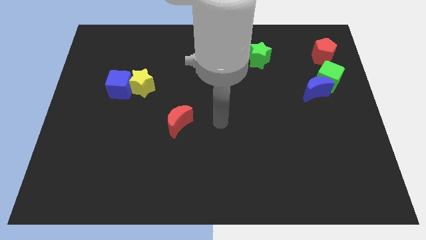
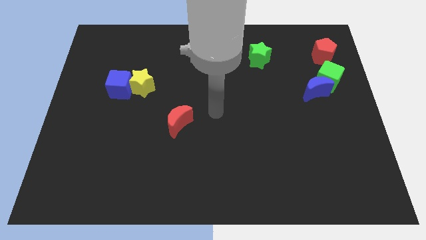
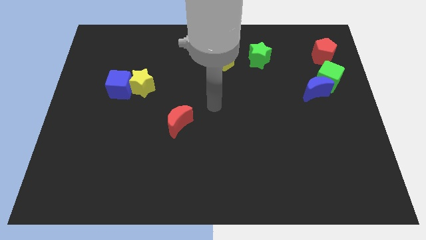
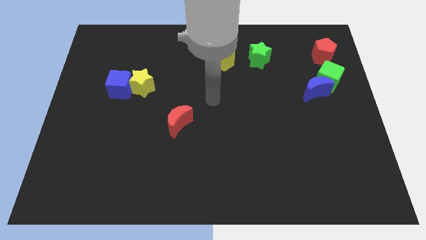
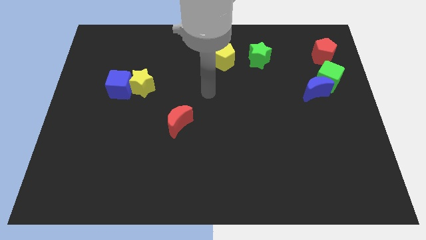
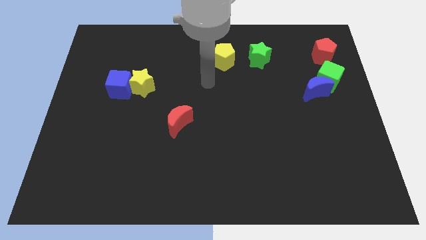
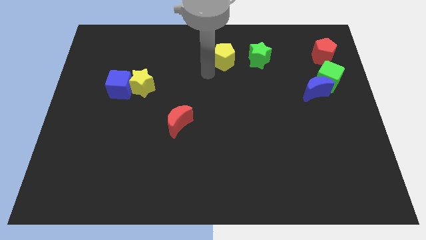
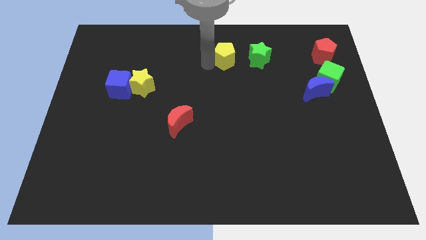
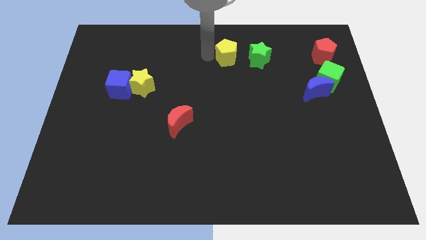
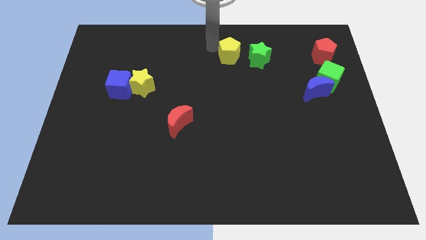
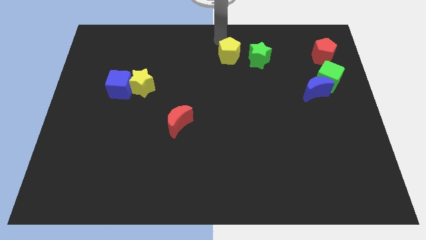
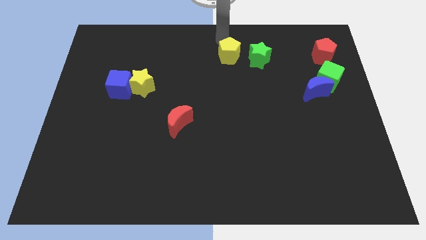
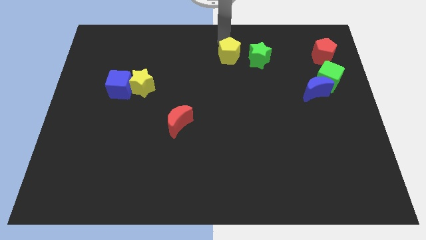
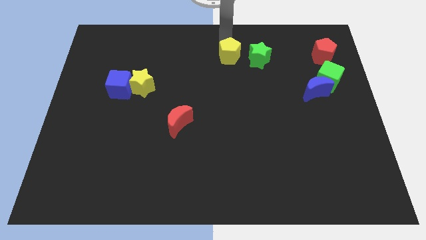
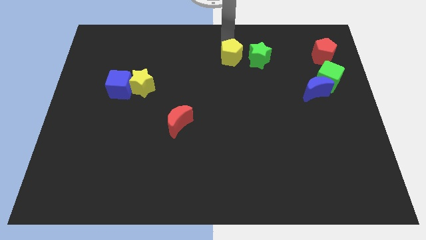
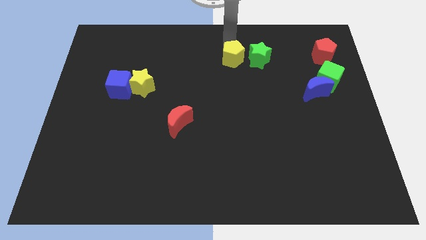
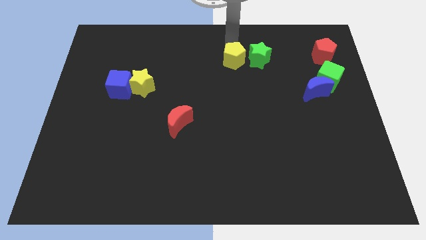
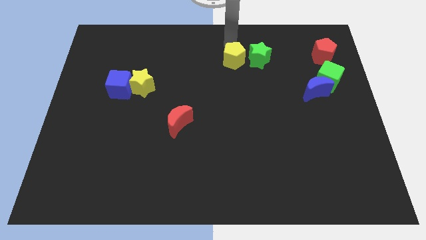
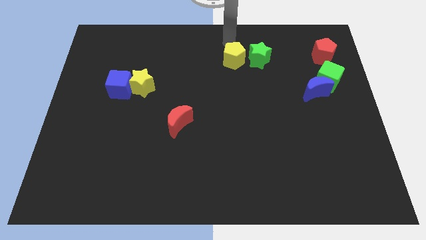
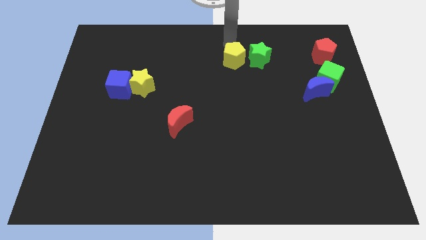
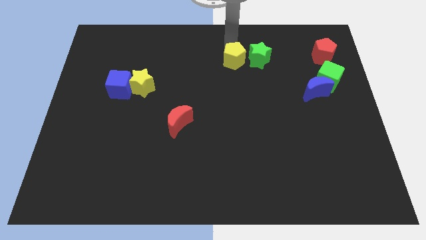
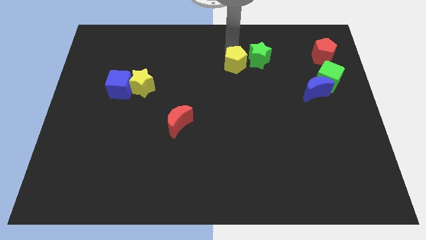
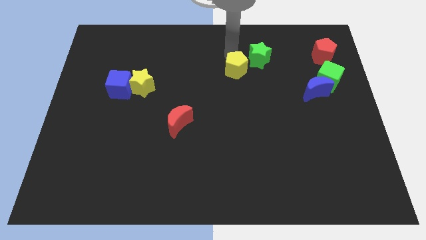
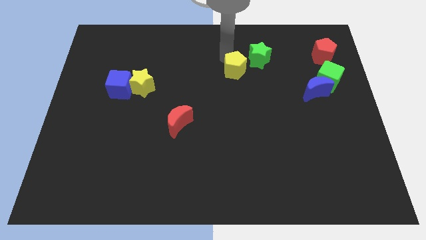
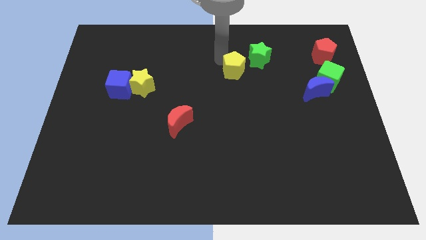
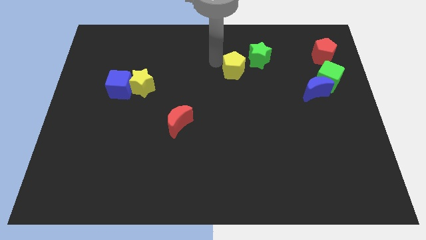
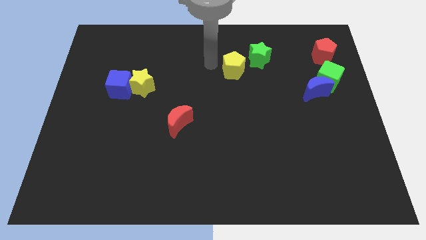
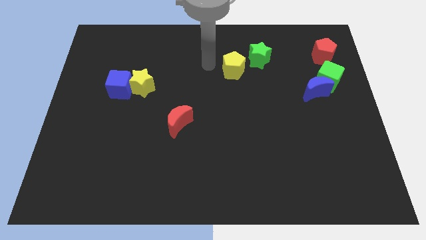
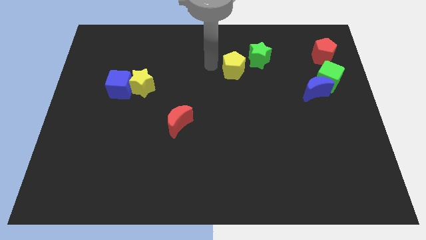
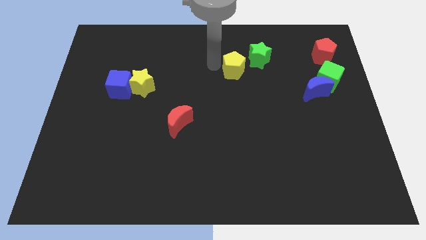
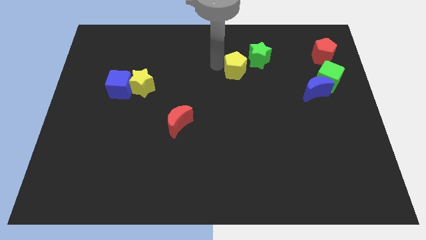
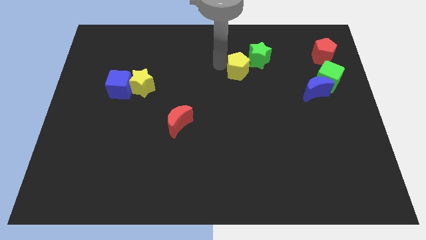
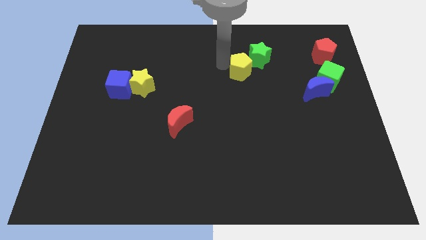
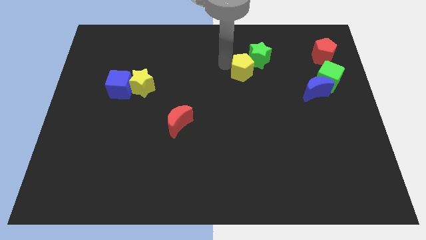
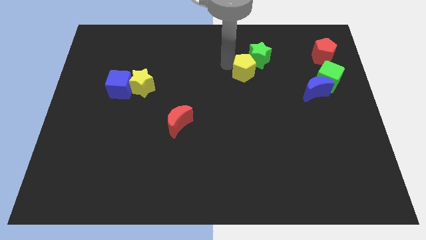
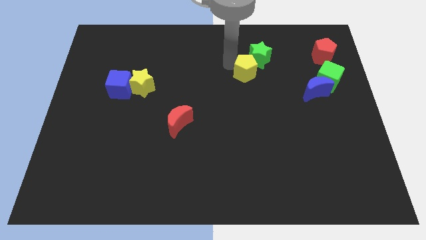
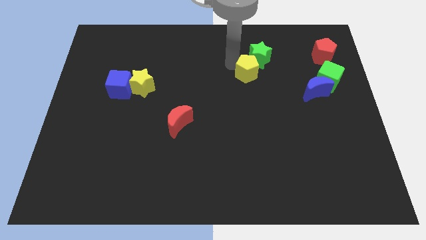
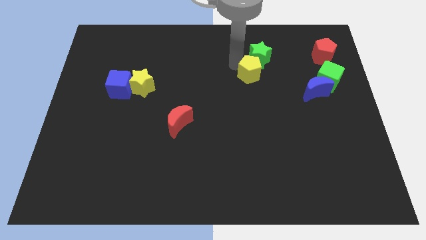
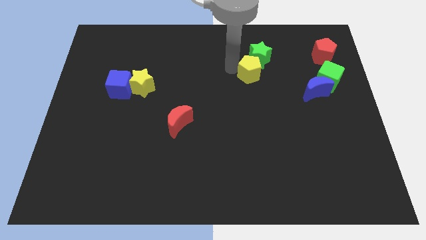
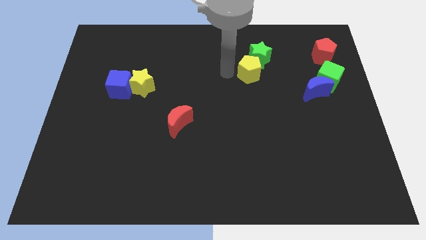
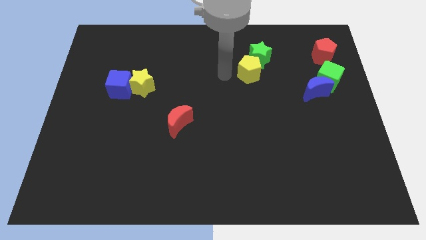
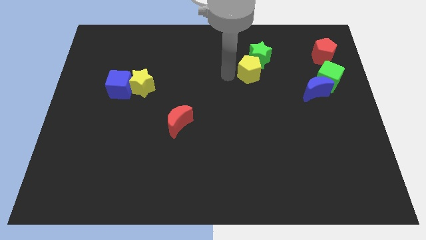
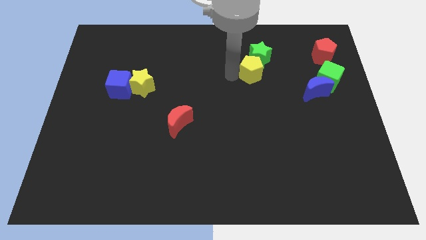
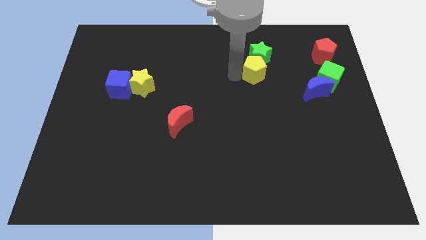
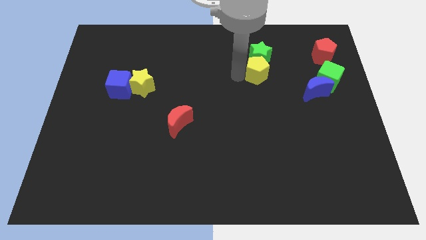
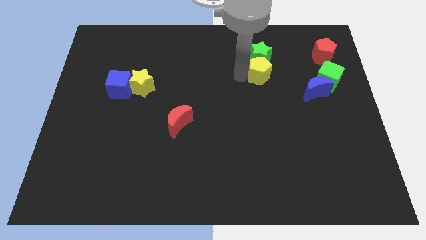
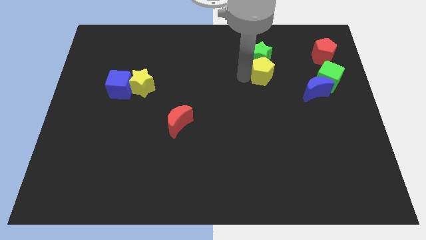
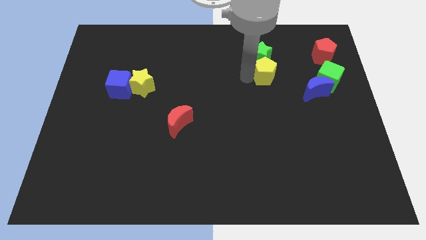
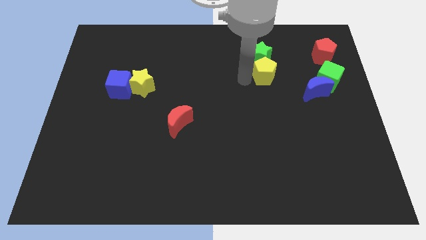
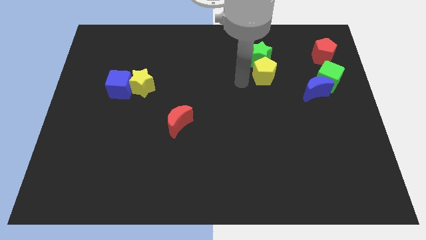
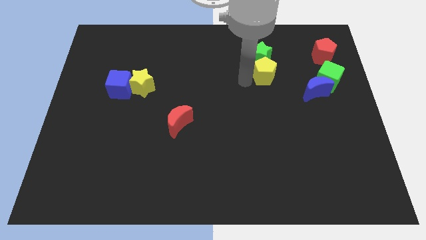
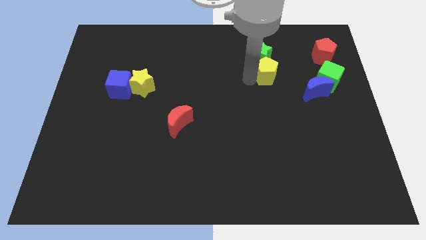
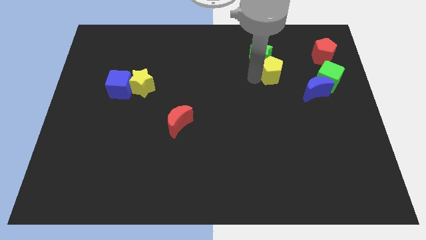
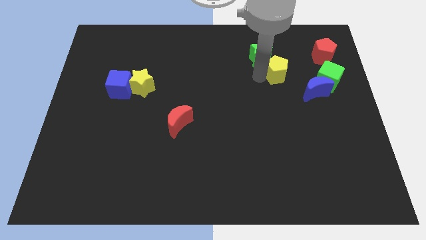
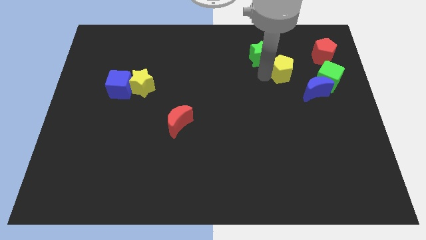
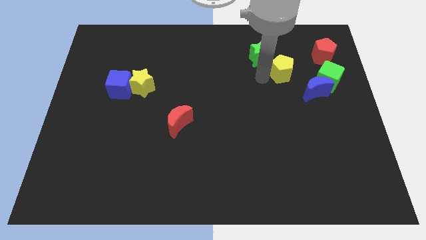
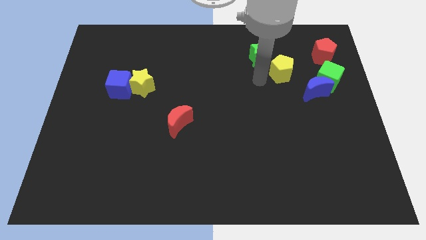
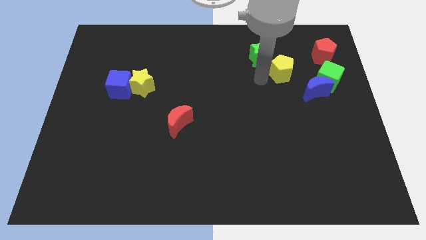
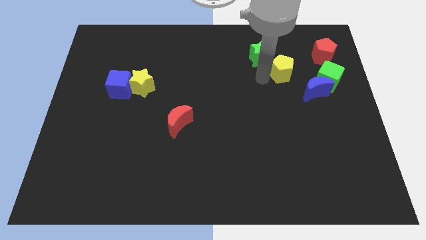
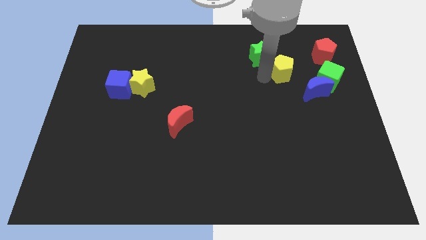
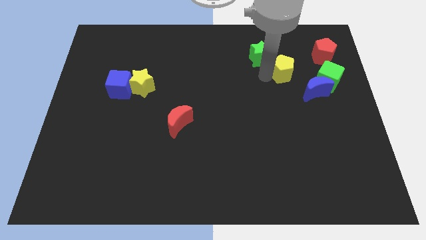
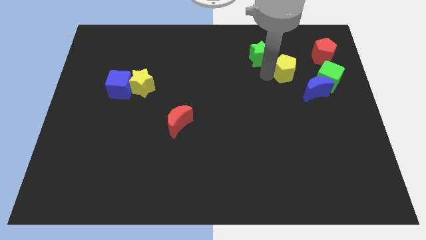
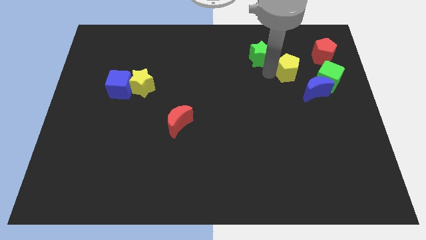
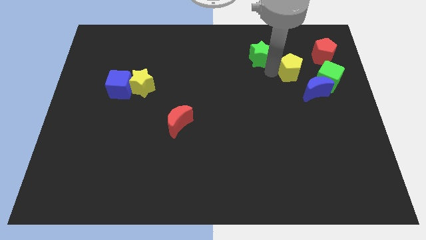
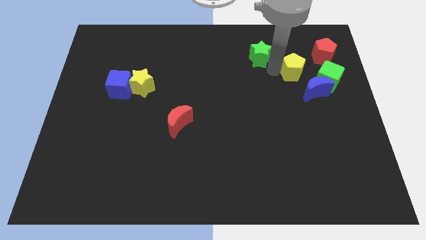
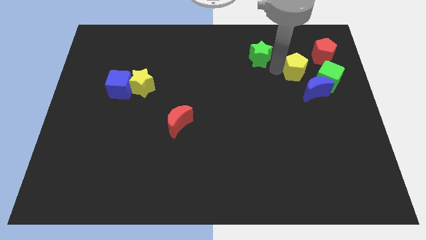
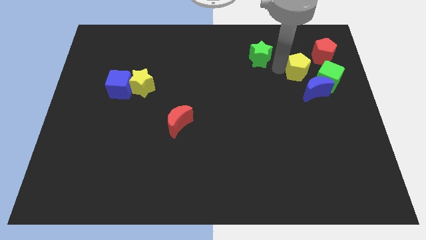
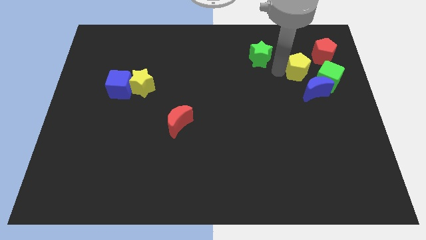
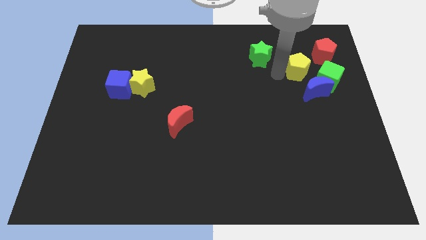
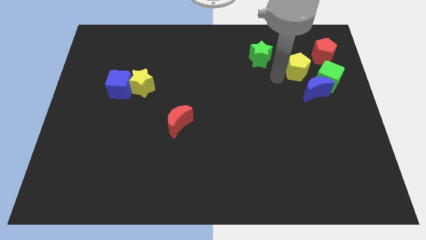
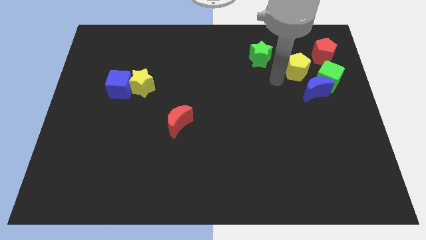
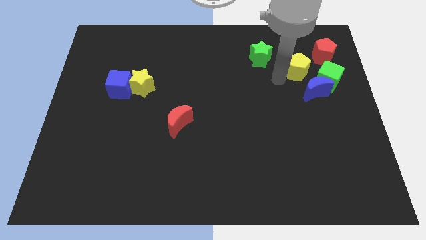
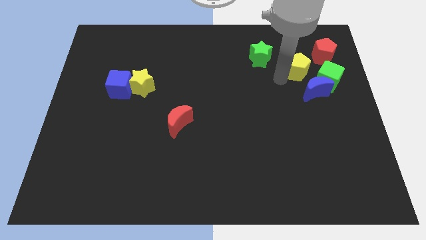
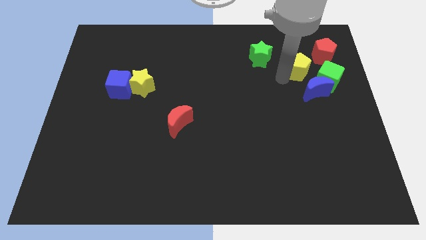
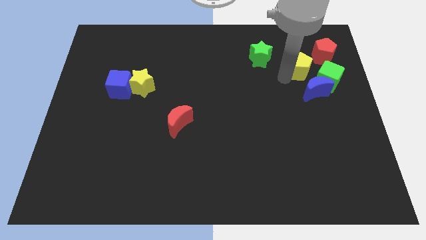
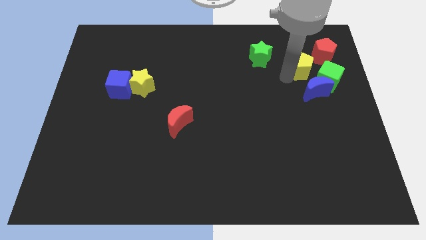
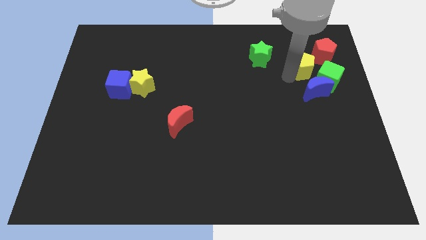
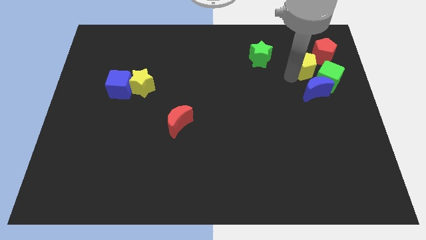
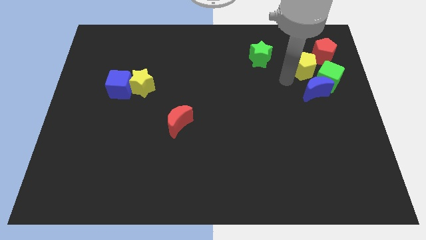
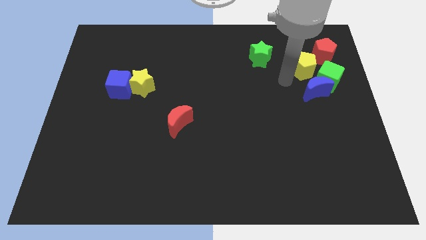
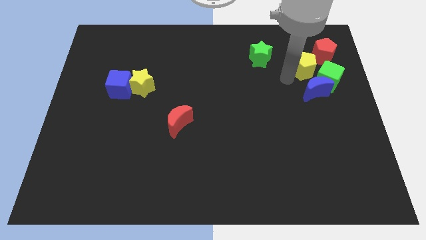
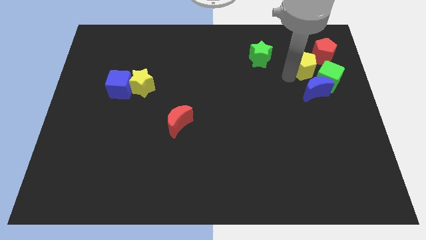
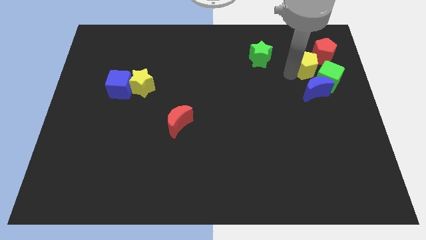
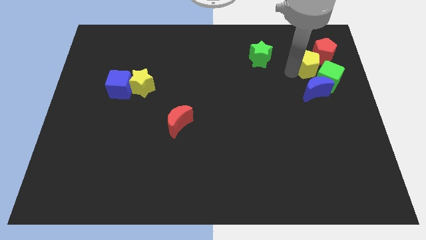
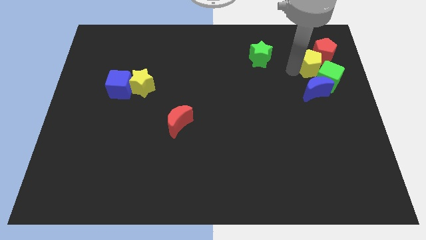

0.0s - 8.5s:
push the yellow pentagon towards the red pentagon
